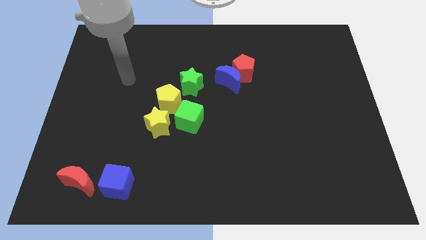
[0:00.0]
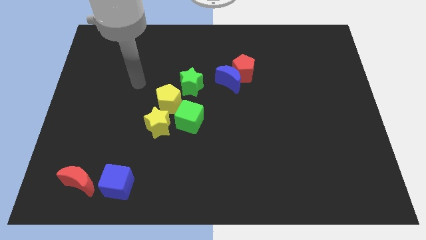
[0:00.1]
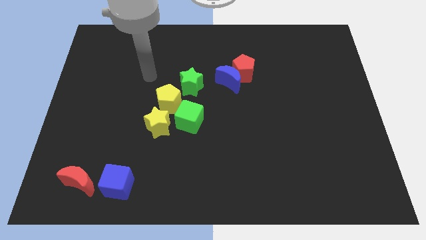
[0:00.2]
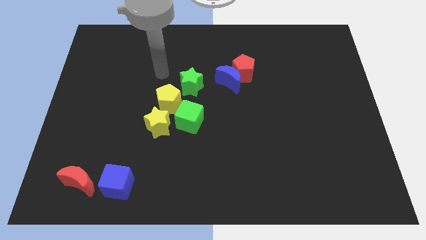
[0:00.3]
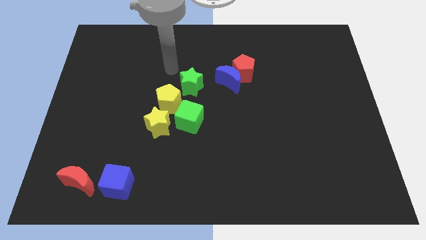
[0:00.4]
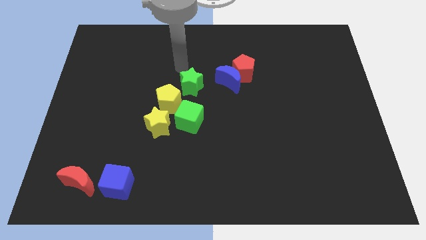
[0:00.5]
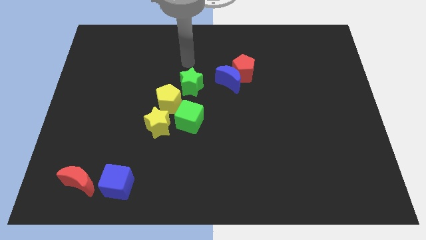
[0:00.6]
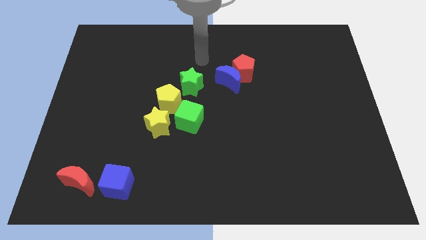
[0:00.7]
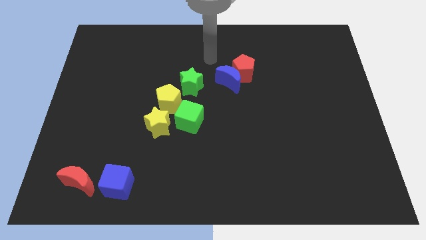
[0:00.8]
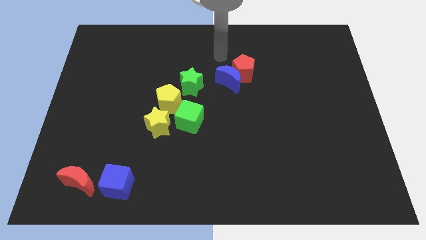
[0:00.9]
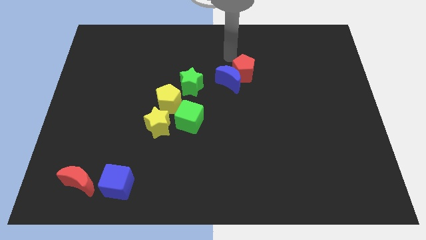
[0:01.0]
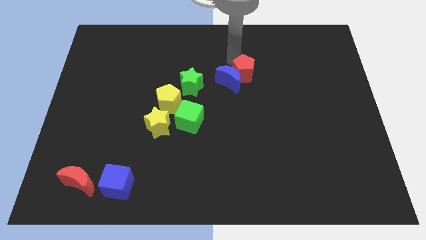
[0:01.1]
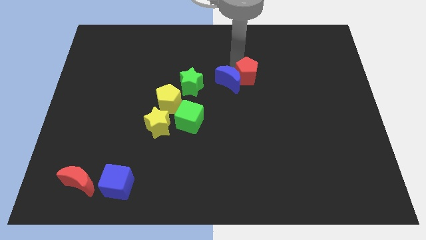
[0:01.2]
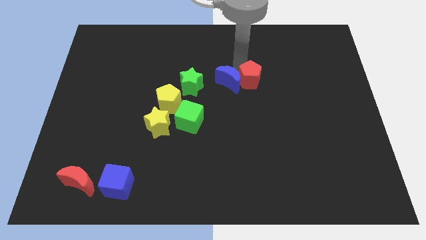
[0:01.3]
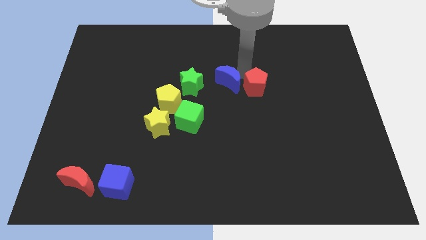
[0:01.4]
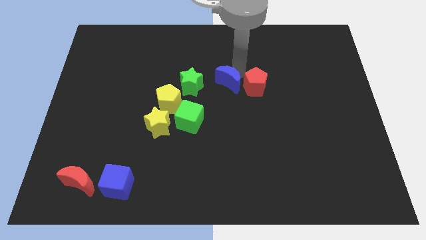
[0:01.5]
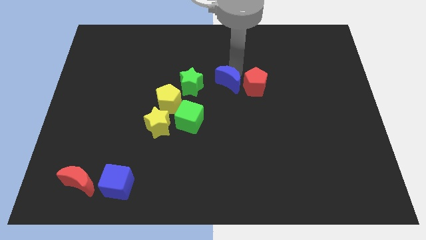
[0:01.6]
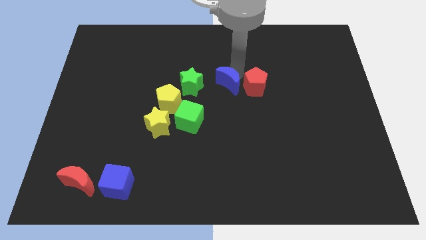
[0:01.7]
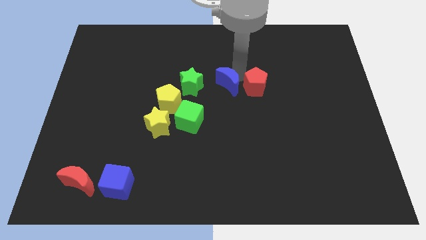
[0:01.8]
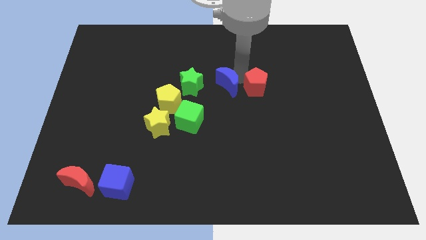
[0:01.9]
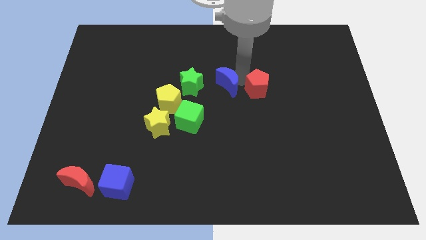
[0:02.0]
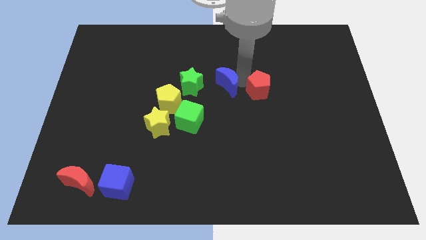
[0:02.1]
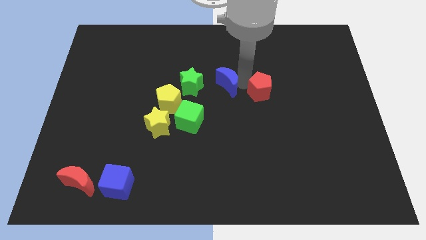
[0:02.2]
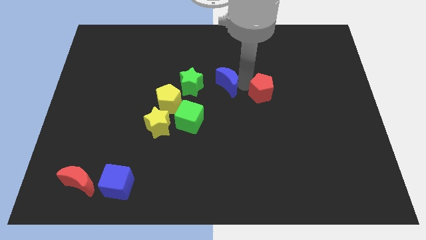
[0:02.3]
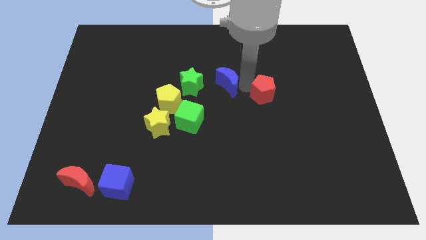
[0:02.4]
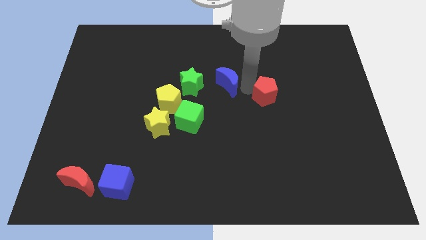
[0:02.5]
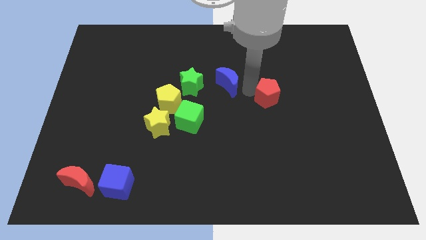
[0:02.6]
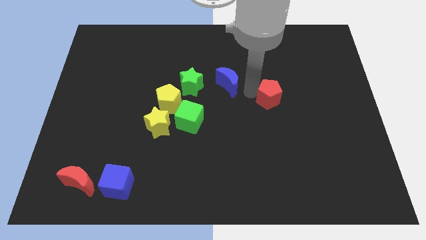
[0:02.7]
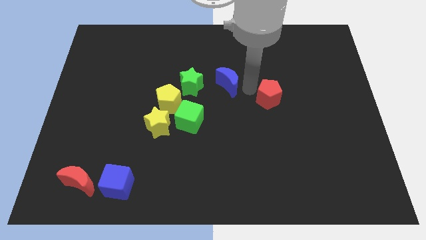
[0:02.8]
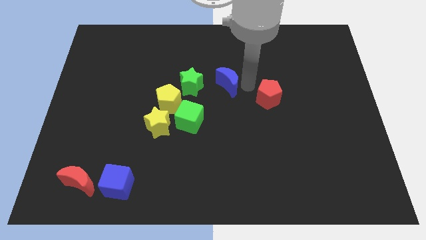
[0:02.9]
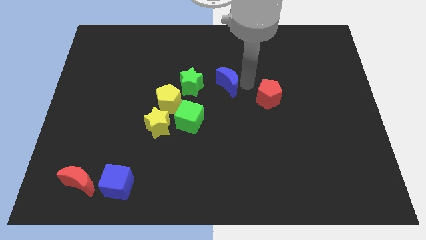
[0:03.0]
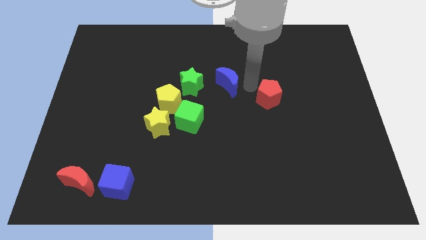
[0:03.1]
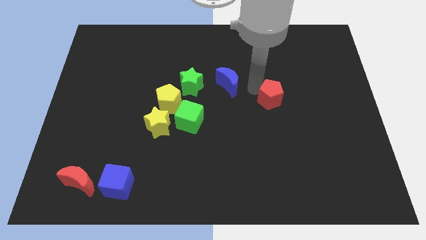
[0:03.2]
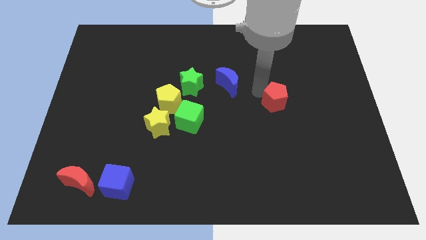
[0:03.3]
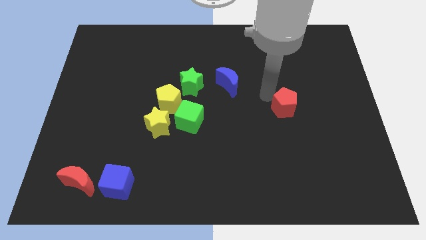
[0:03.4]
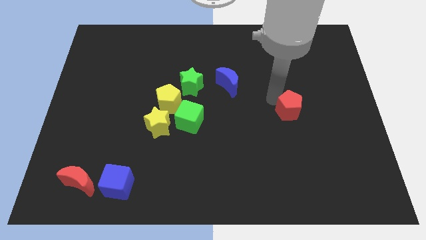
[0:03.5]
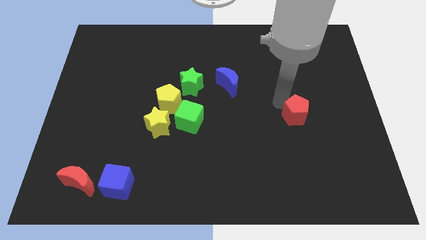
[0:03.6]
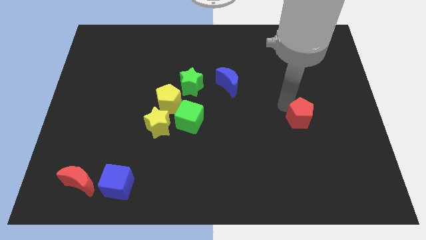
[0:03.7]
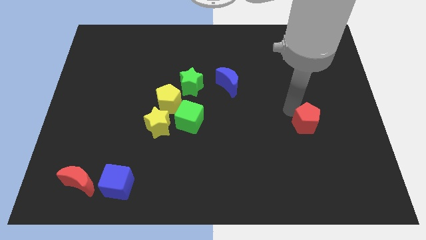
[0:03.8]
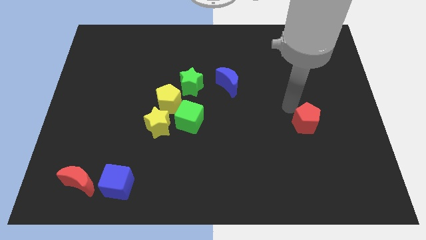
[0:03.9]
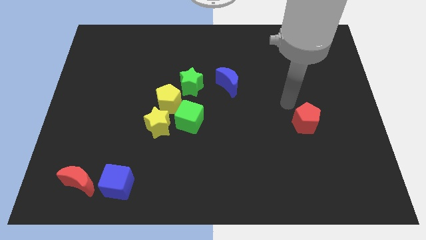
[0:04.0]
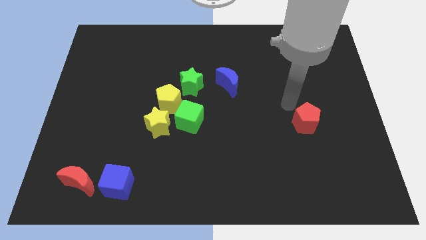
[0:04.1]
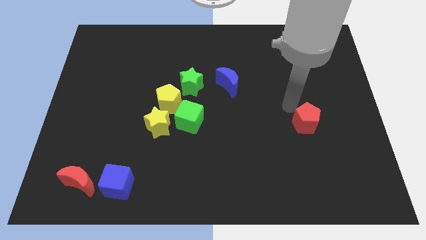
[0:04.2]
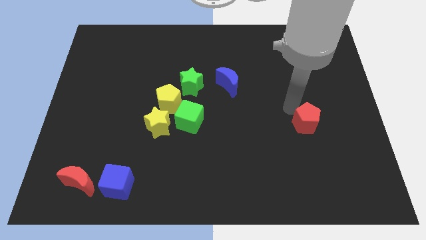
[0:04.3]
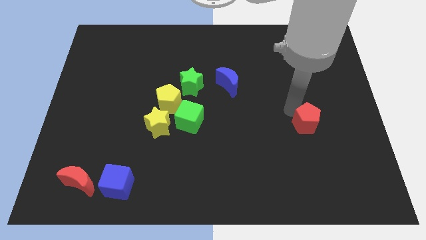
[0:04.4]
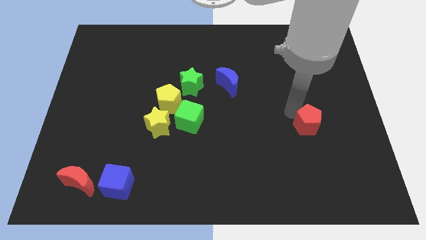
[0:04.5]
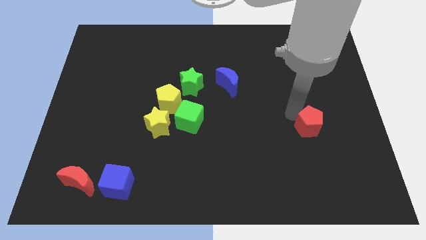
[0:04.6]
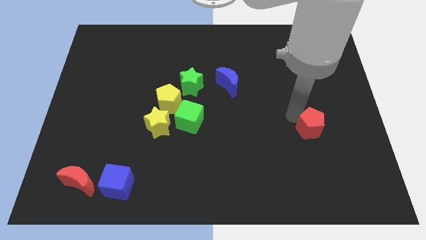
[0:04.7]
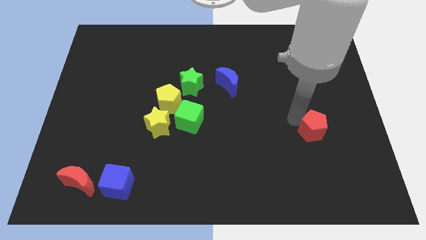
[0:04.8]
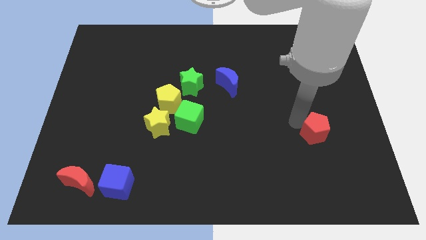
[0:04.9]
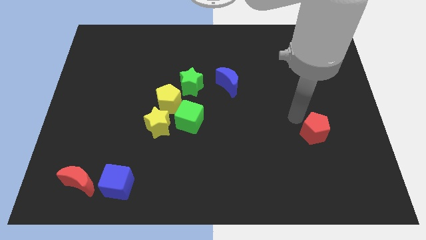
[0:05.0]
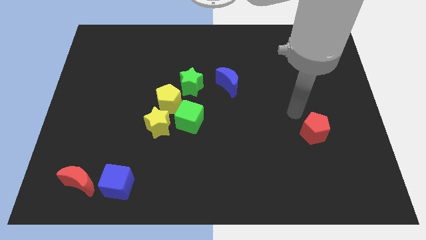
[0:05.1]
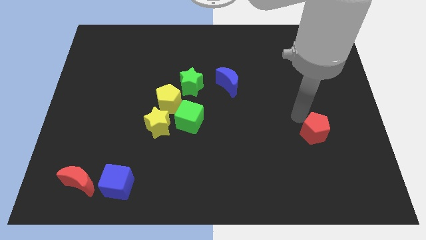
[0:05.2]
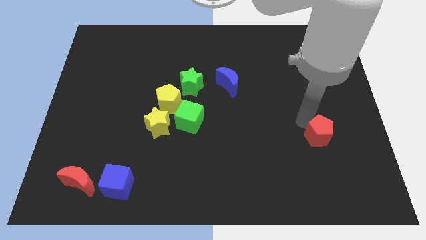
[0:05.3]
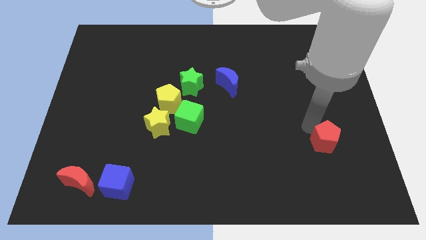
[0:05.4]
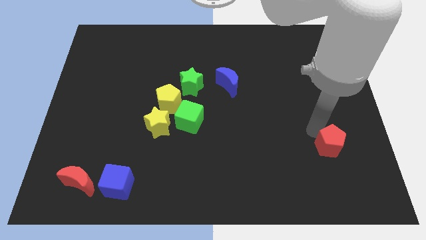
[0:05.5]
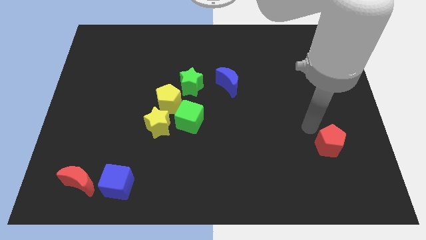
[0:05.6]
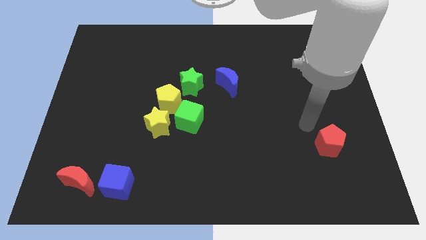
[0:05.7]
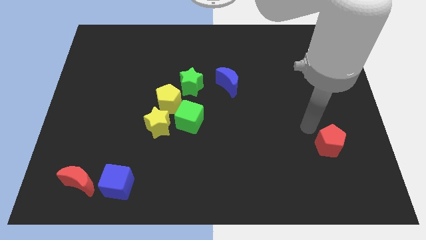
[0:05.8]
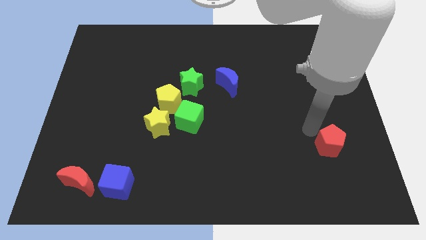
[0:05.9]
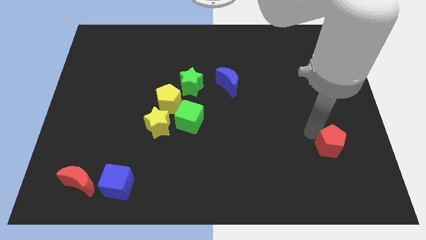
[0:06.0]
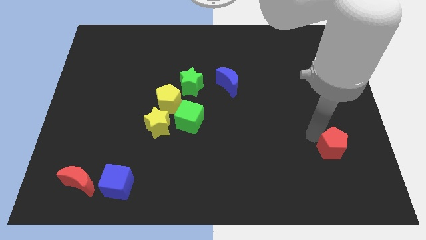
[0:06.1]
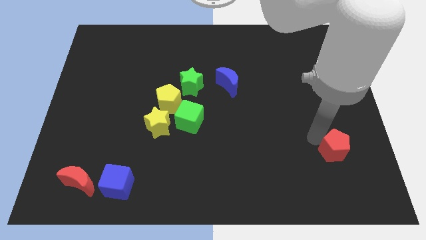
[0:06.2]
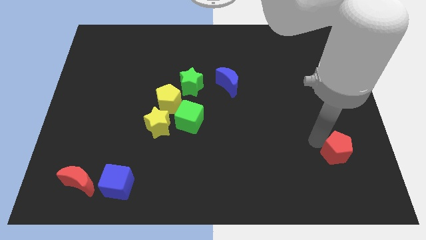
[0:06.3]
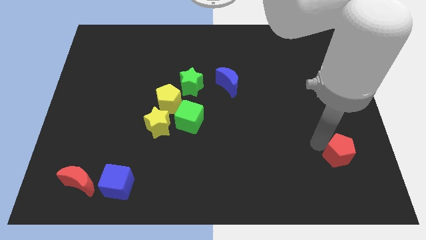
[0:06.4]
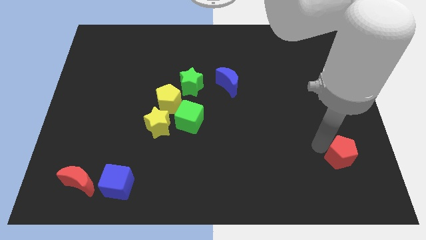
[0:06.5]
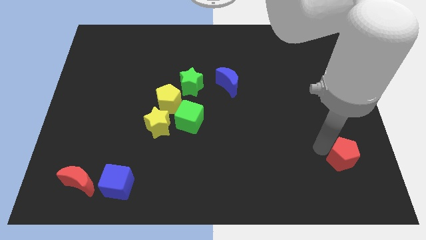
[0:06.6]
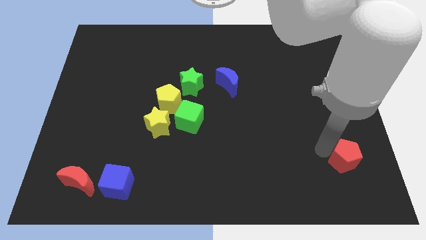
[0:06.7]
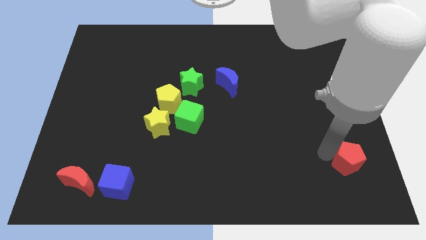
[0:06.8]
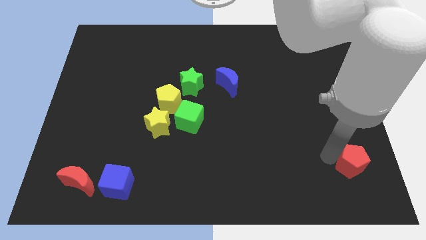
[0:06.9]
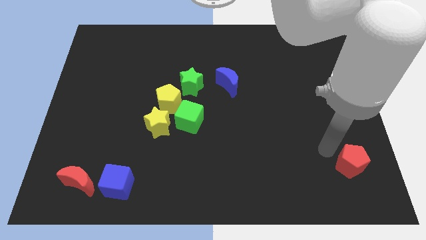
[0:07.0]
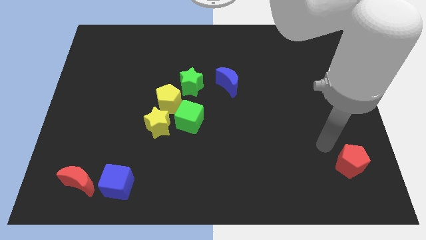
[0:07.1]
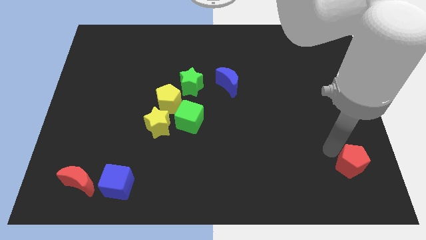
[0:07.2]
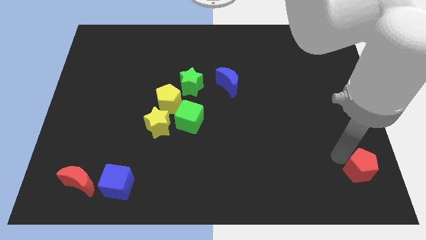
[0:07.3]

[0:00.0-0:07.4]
push the red pentagon to the bottom right corner
